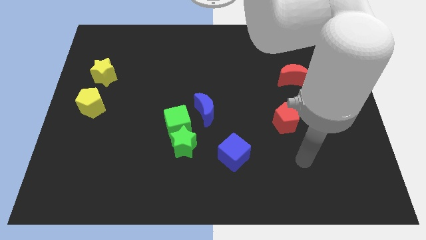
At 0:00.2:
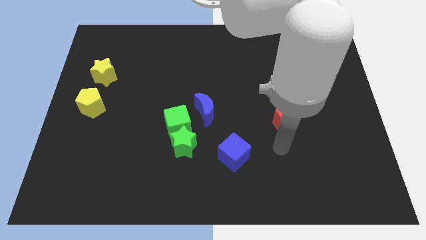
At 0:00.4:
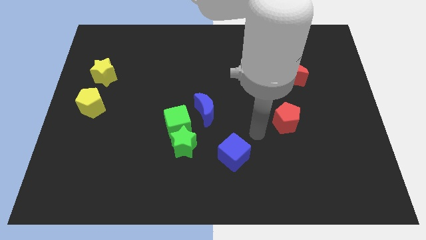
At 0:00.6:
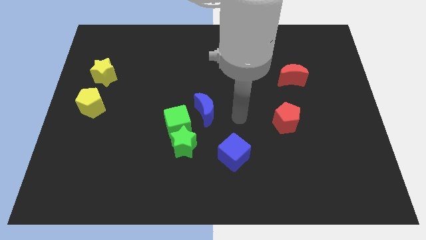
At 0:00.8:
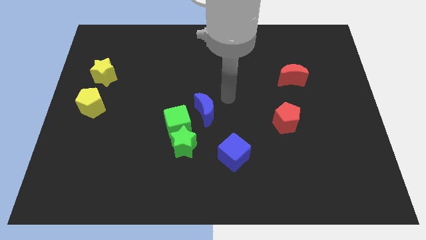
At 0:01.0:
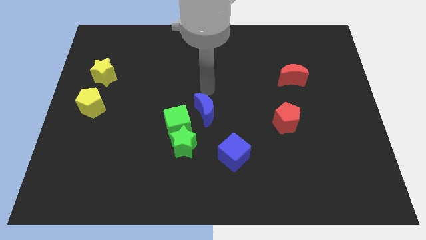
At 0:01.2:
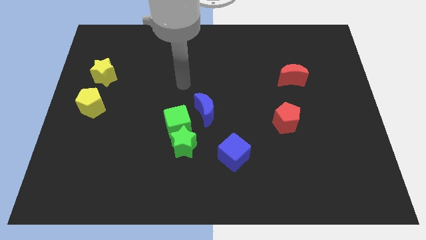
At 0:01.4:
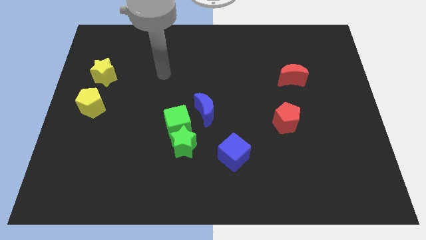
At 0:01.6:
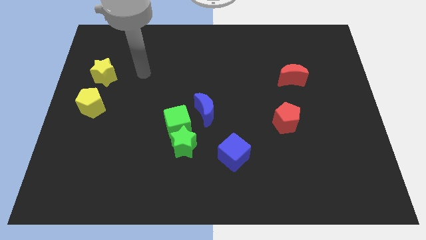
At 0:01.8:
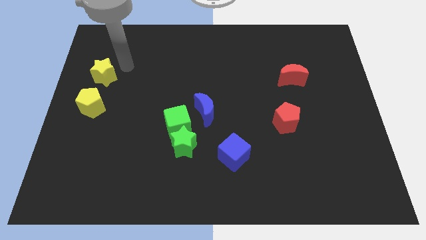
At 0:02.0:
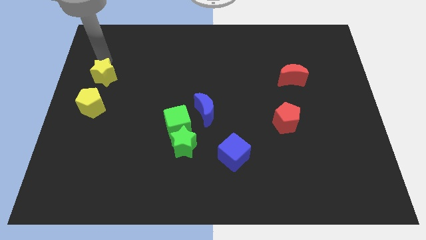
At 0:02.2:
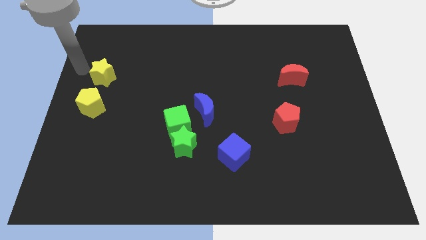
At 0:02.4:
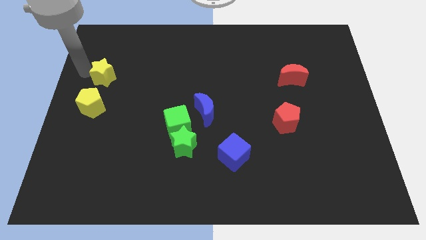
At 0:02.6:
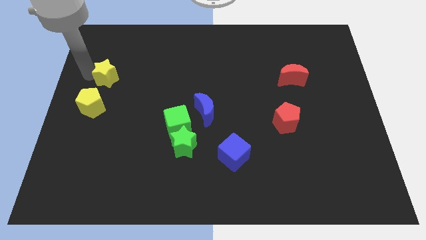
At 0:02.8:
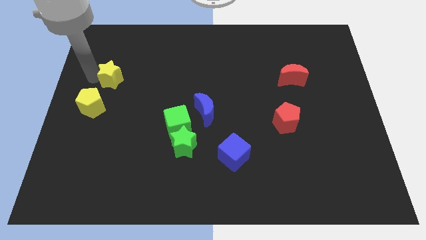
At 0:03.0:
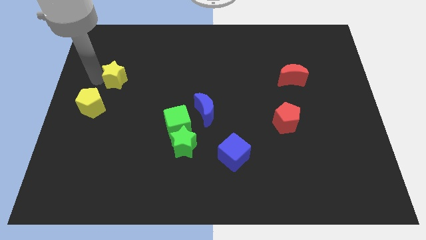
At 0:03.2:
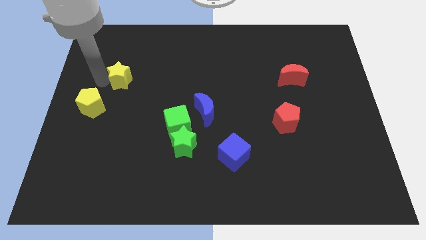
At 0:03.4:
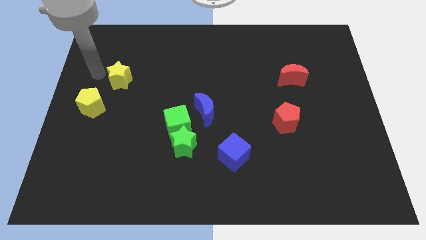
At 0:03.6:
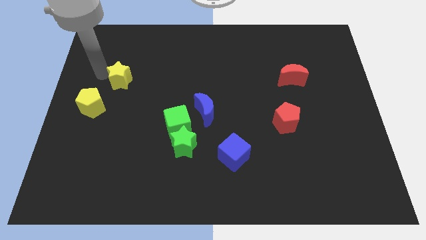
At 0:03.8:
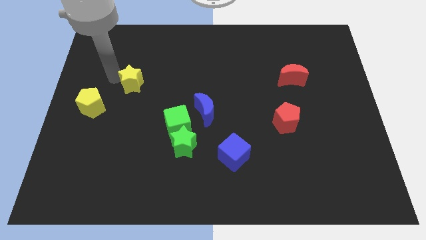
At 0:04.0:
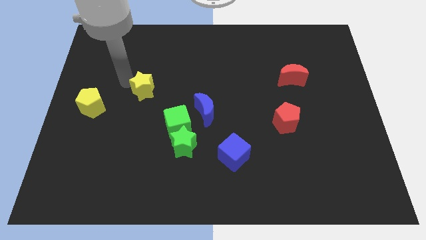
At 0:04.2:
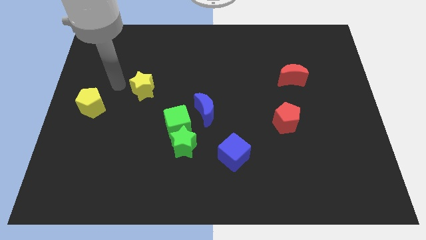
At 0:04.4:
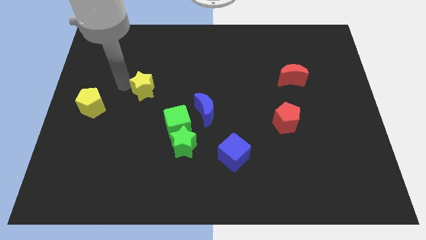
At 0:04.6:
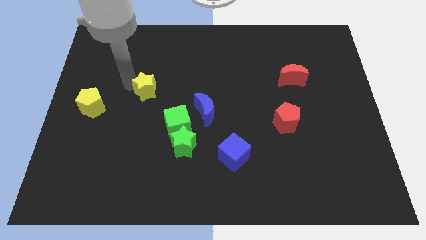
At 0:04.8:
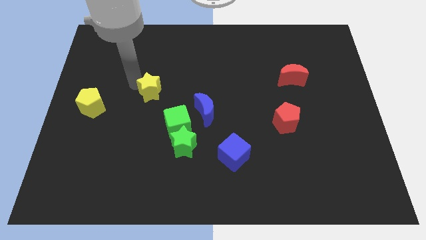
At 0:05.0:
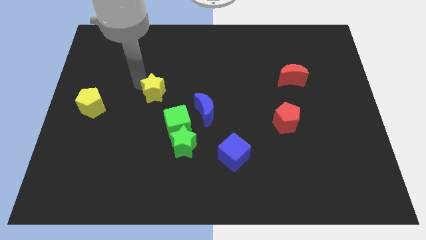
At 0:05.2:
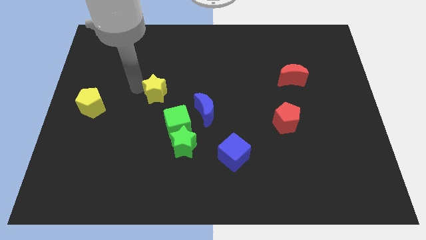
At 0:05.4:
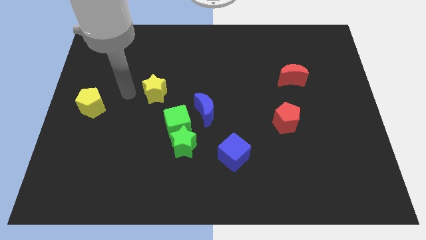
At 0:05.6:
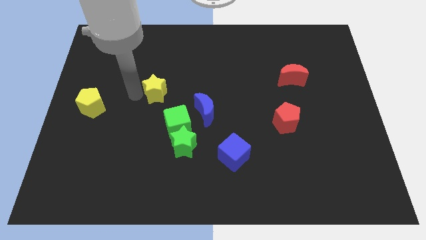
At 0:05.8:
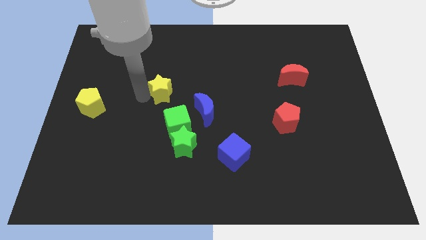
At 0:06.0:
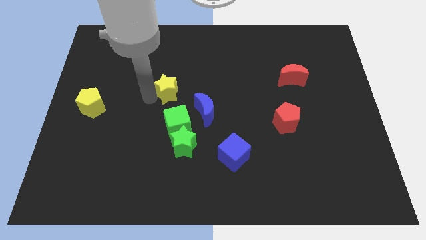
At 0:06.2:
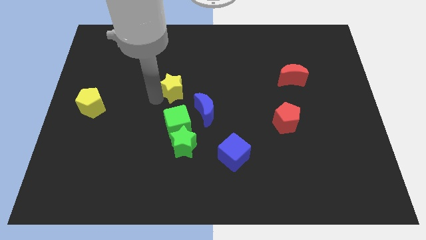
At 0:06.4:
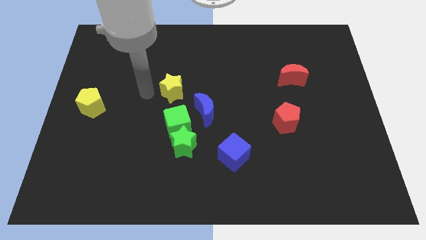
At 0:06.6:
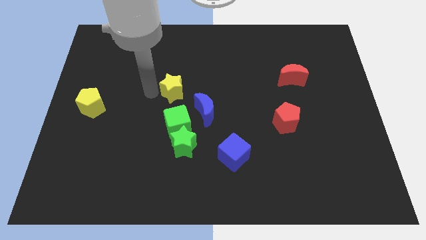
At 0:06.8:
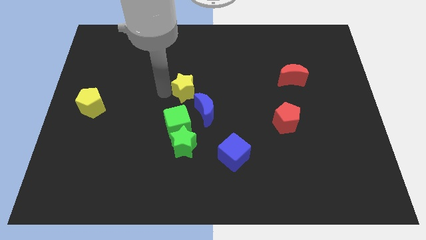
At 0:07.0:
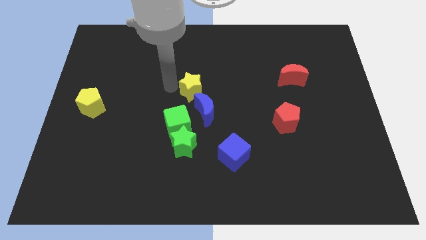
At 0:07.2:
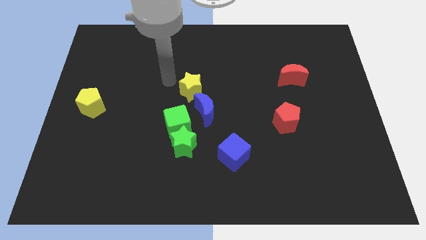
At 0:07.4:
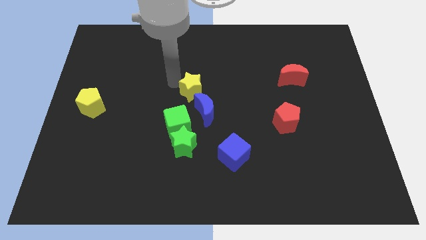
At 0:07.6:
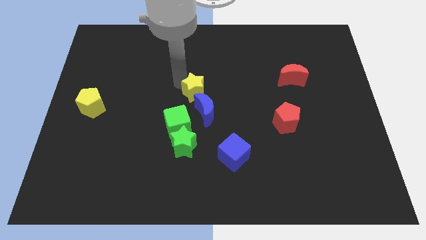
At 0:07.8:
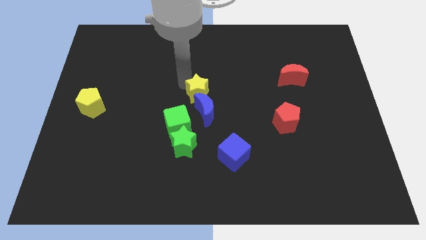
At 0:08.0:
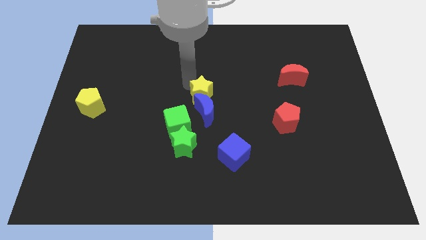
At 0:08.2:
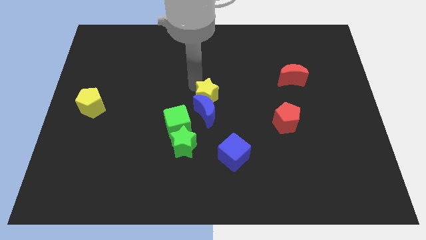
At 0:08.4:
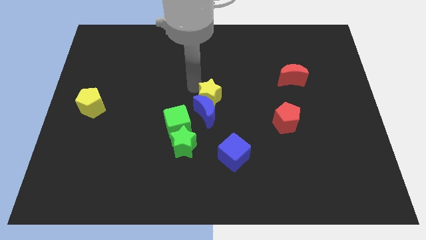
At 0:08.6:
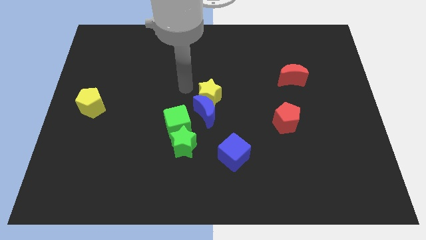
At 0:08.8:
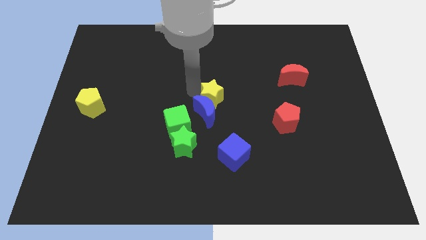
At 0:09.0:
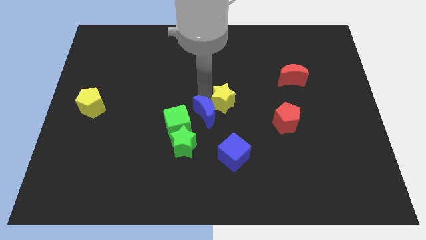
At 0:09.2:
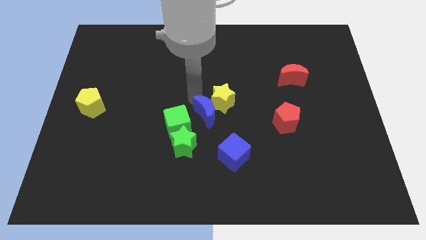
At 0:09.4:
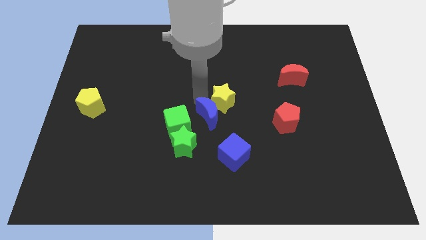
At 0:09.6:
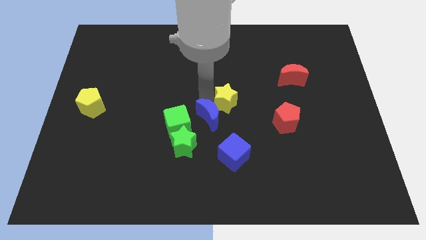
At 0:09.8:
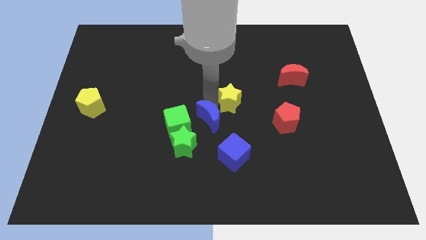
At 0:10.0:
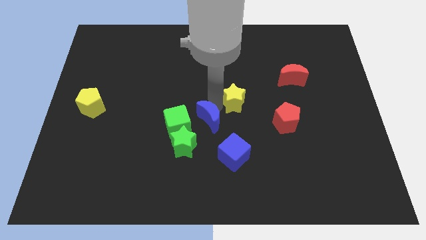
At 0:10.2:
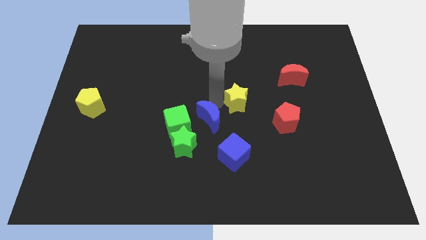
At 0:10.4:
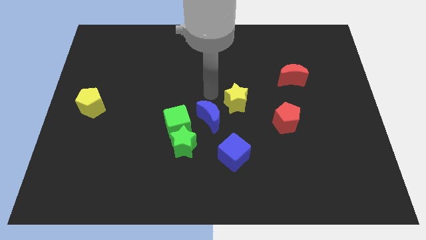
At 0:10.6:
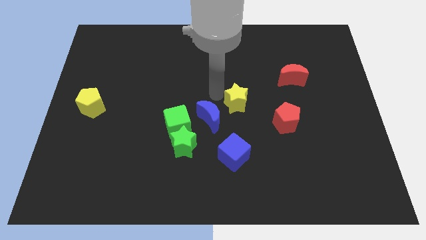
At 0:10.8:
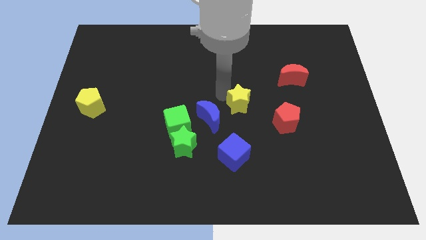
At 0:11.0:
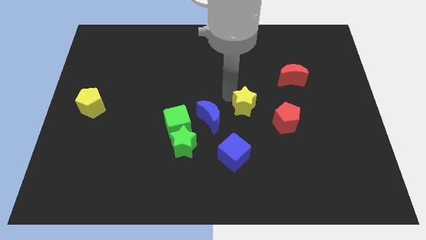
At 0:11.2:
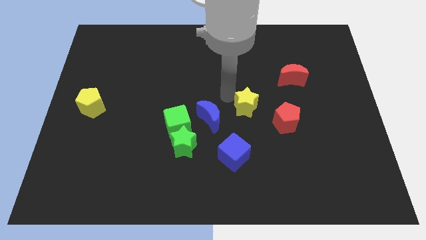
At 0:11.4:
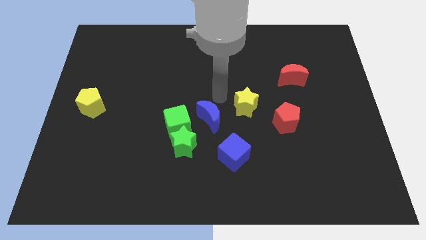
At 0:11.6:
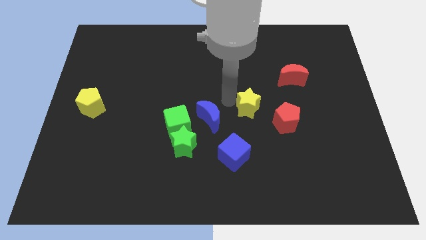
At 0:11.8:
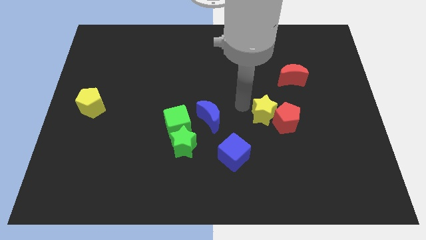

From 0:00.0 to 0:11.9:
push the yellow star to the red pentagon
